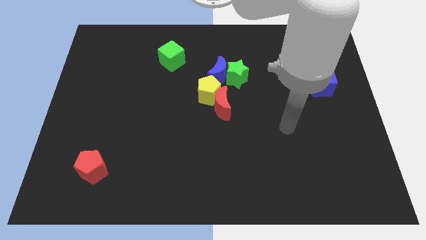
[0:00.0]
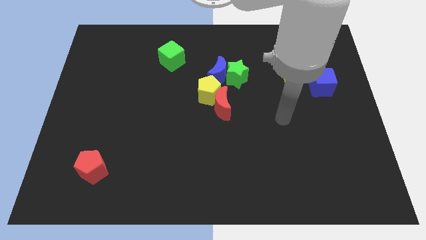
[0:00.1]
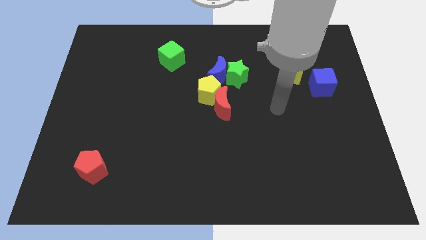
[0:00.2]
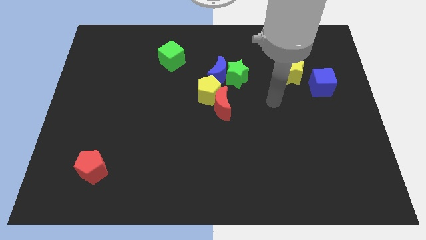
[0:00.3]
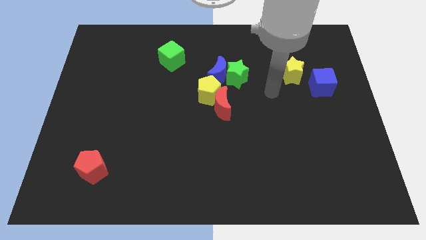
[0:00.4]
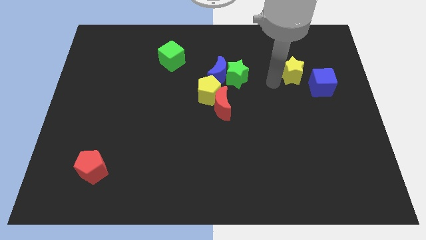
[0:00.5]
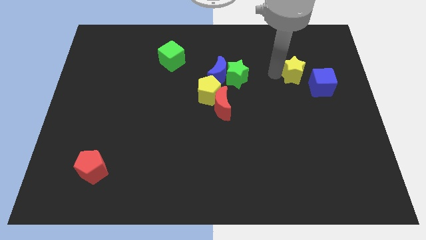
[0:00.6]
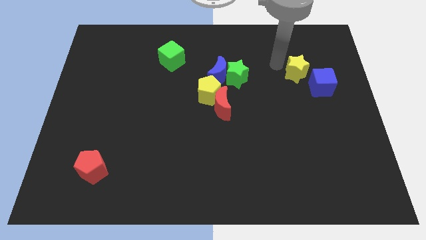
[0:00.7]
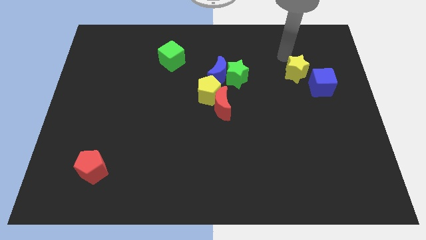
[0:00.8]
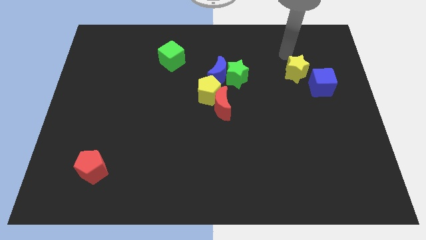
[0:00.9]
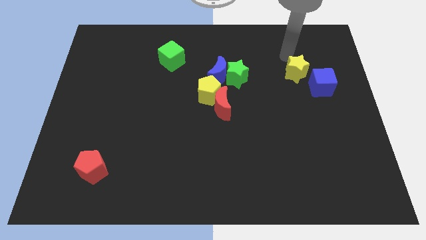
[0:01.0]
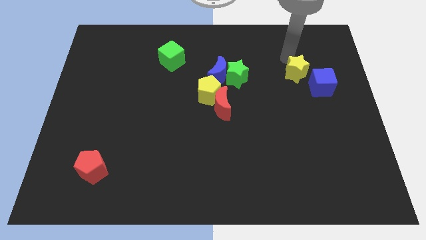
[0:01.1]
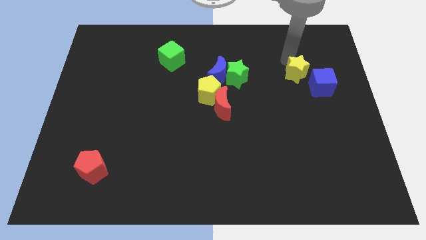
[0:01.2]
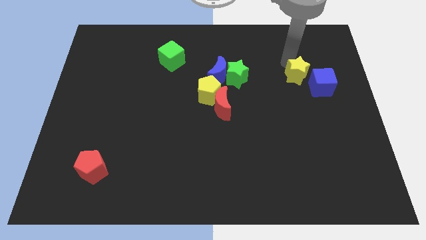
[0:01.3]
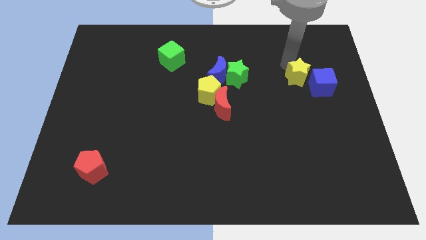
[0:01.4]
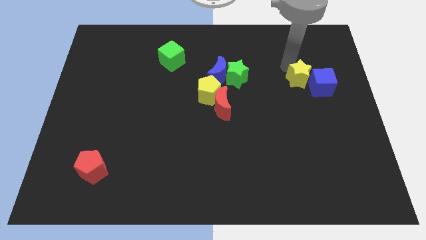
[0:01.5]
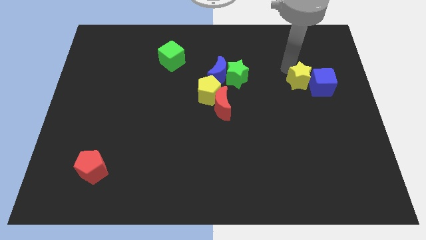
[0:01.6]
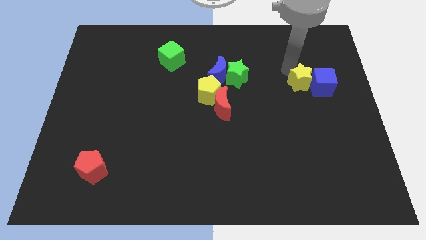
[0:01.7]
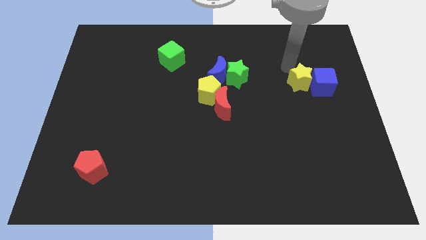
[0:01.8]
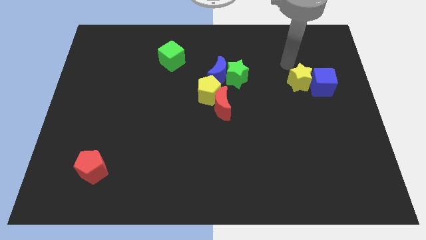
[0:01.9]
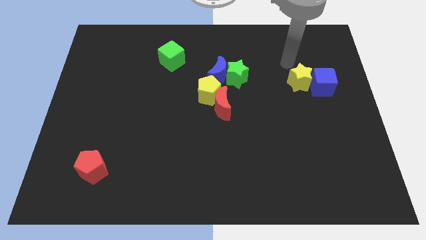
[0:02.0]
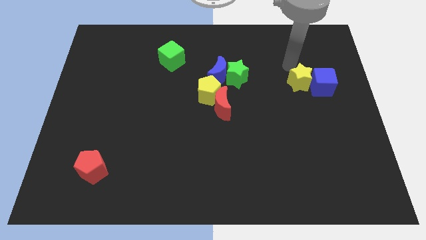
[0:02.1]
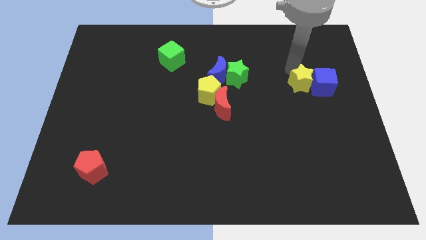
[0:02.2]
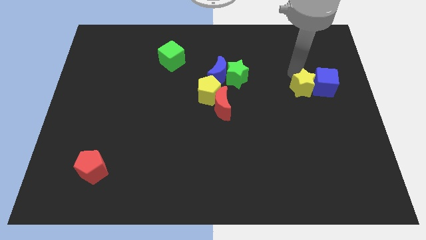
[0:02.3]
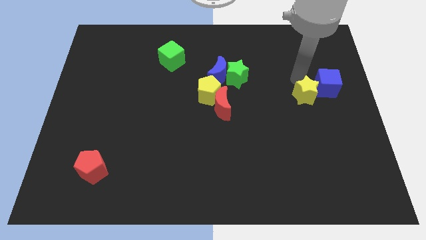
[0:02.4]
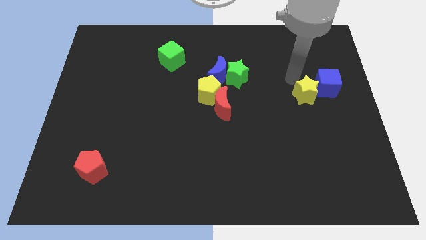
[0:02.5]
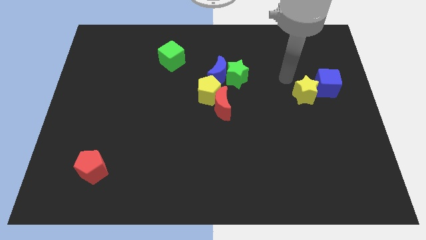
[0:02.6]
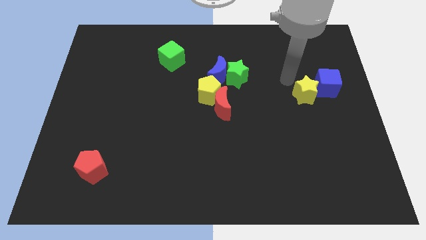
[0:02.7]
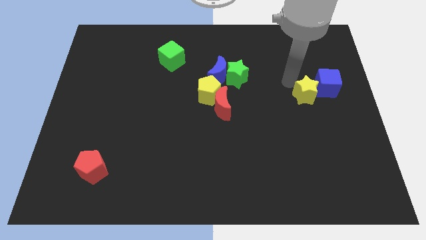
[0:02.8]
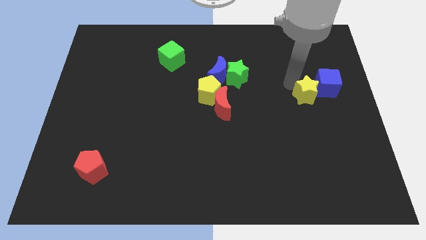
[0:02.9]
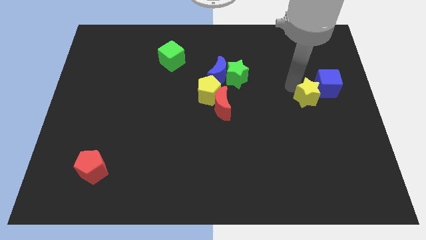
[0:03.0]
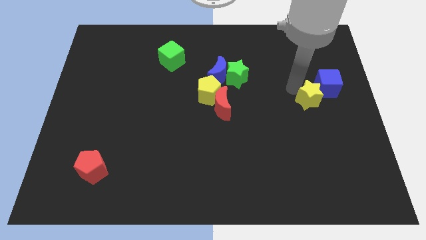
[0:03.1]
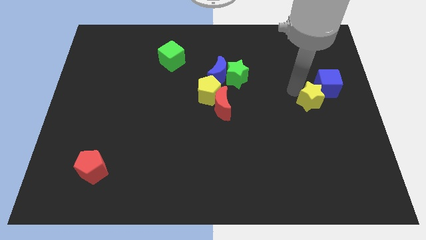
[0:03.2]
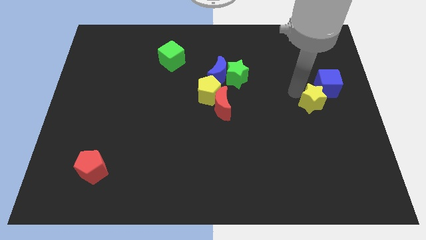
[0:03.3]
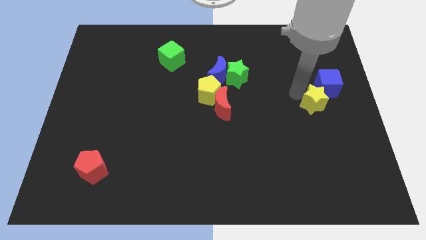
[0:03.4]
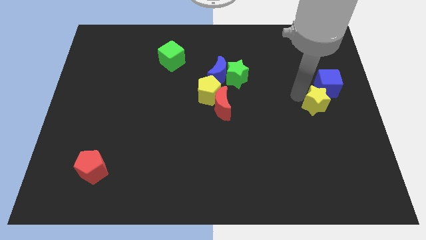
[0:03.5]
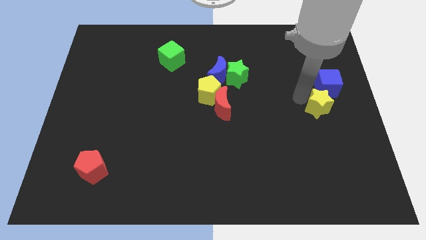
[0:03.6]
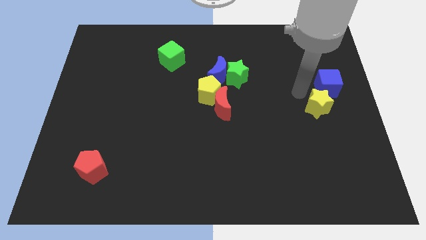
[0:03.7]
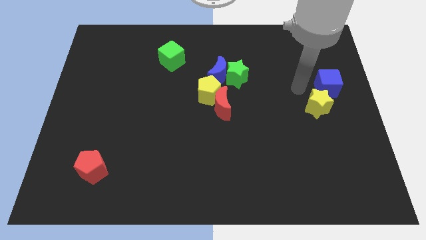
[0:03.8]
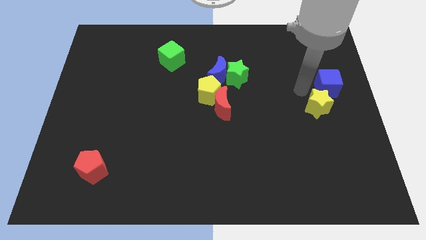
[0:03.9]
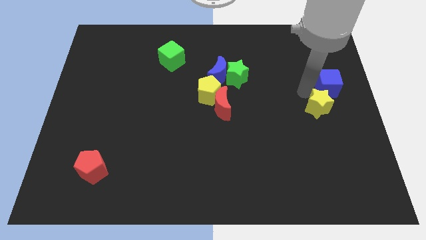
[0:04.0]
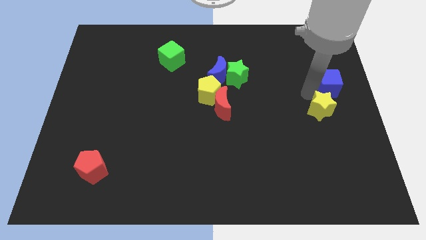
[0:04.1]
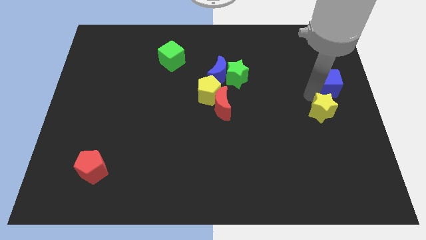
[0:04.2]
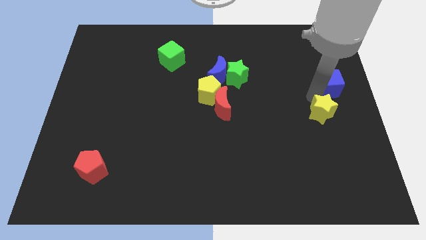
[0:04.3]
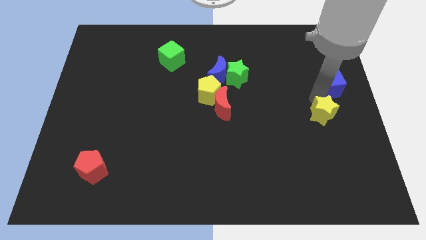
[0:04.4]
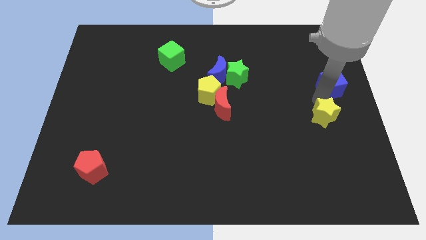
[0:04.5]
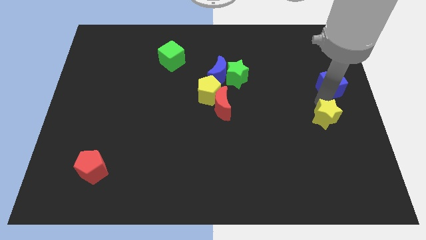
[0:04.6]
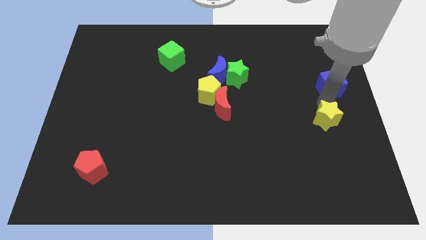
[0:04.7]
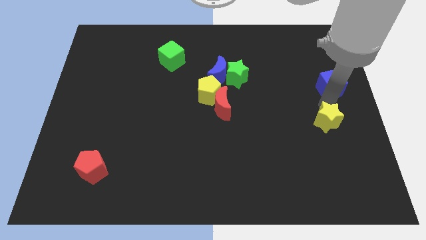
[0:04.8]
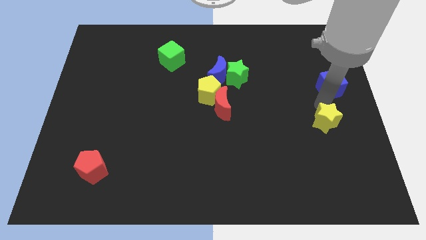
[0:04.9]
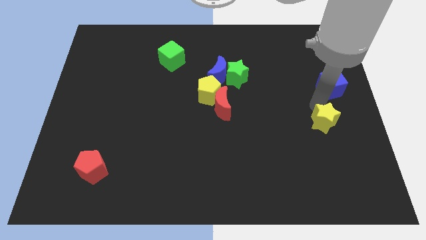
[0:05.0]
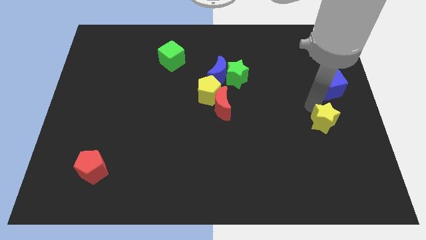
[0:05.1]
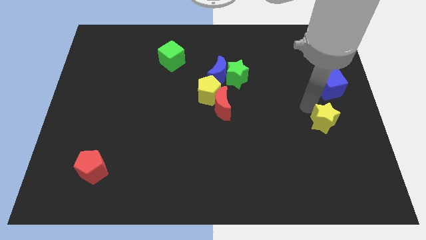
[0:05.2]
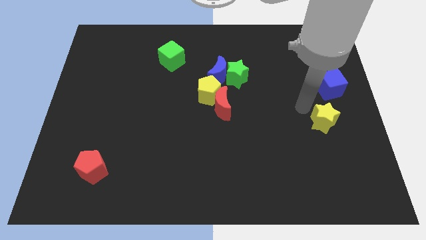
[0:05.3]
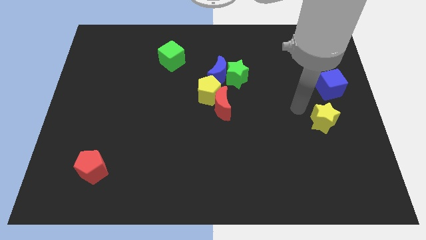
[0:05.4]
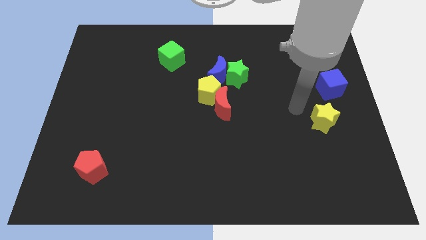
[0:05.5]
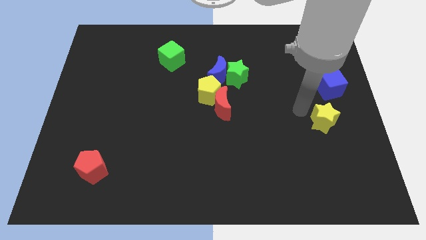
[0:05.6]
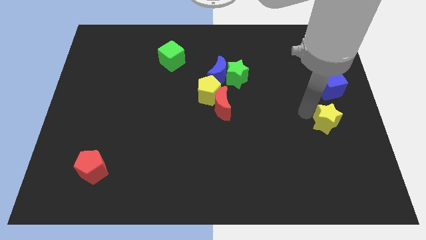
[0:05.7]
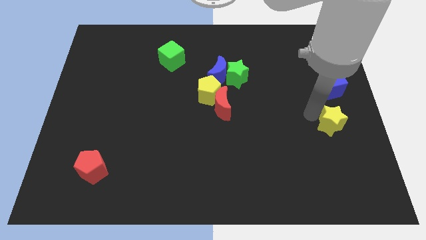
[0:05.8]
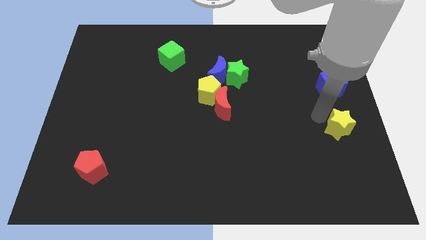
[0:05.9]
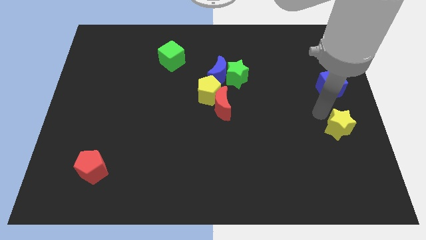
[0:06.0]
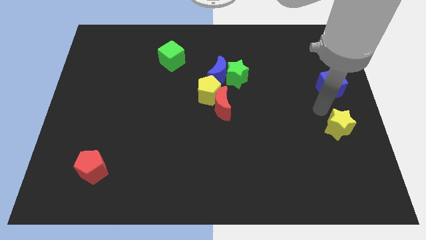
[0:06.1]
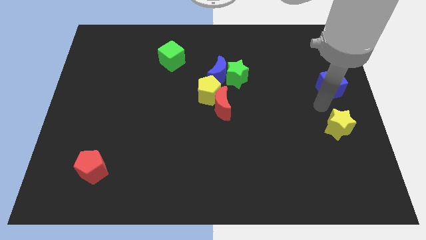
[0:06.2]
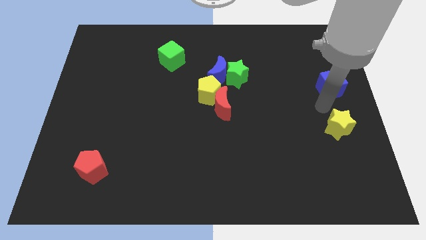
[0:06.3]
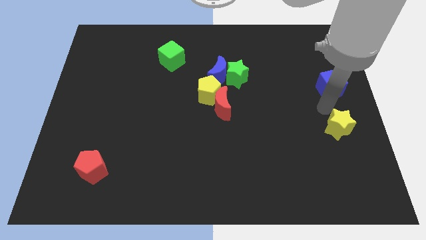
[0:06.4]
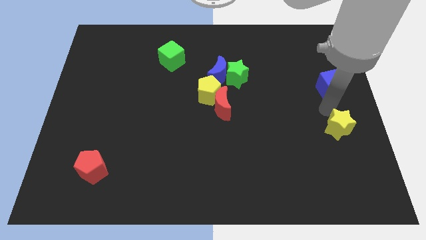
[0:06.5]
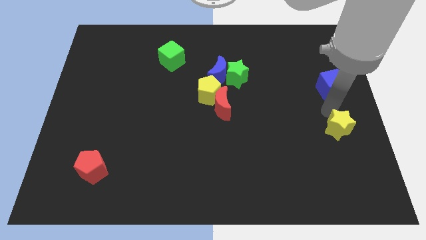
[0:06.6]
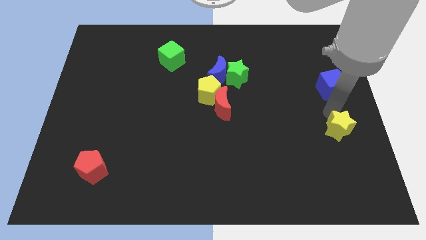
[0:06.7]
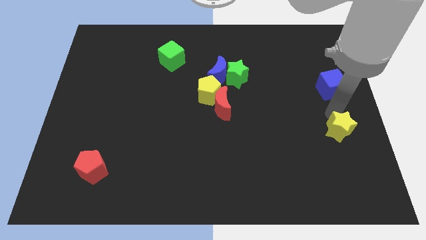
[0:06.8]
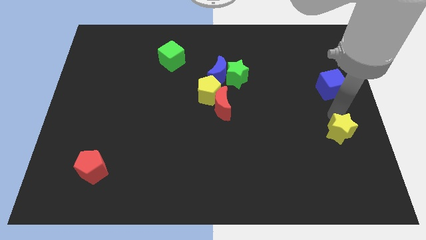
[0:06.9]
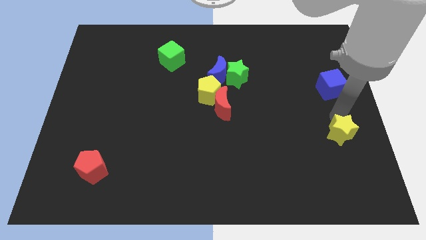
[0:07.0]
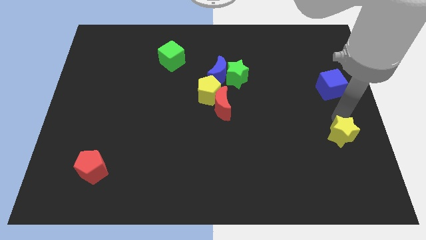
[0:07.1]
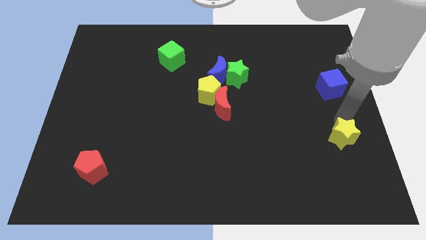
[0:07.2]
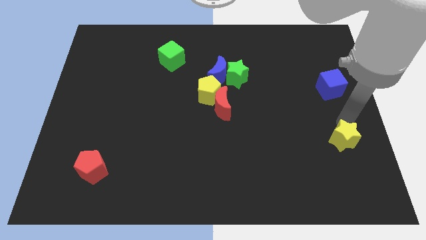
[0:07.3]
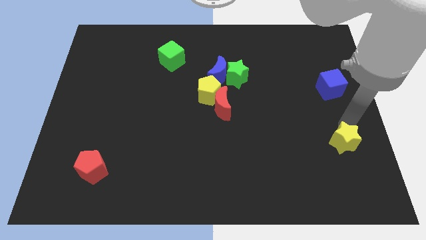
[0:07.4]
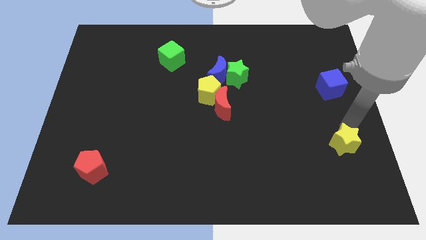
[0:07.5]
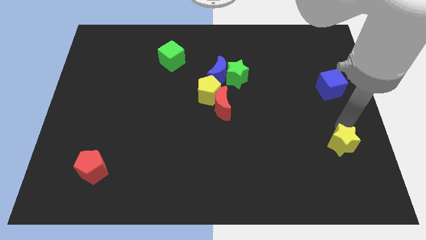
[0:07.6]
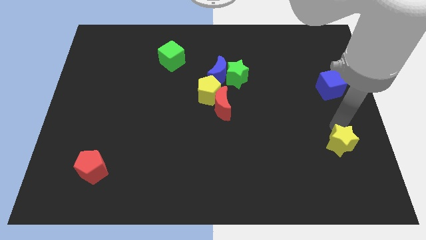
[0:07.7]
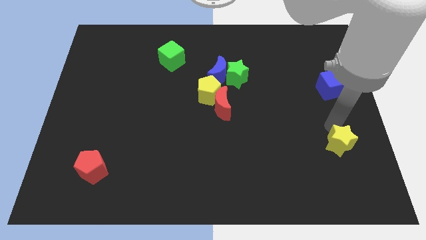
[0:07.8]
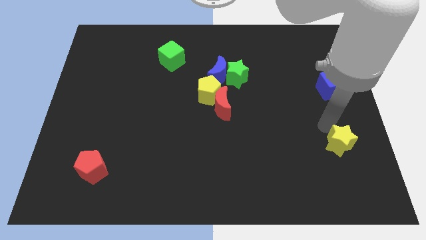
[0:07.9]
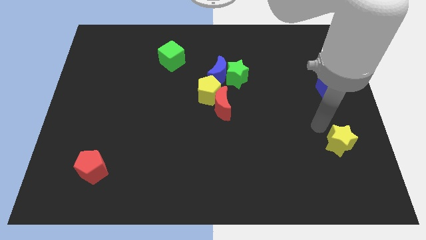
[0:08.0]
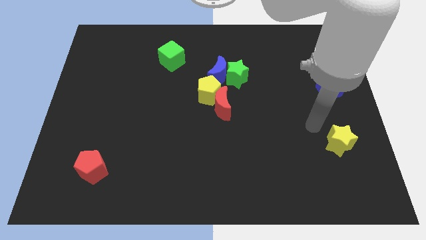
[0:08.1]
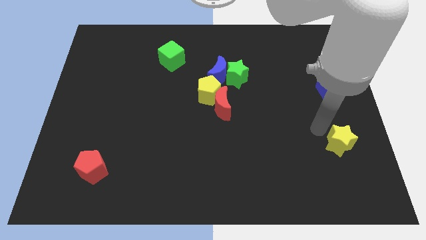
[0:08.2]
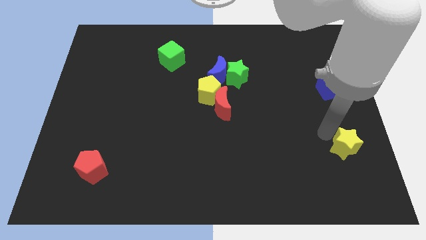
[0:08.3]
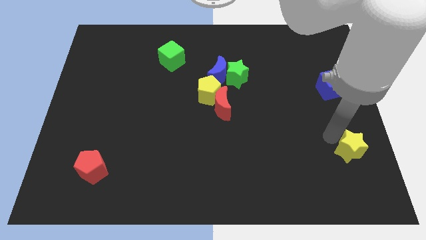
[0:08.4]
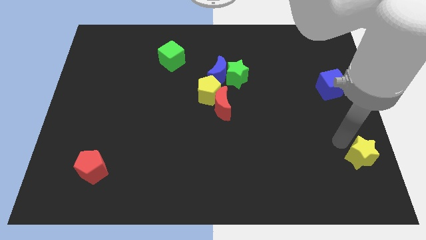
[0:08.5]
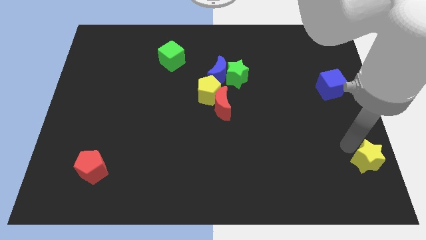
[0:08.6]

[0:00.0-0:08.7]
put the yellow star to the bottom right corner
